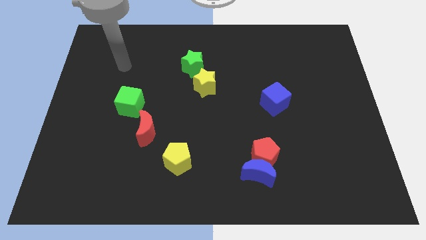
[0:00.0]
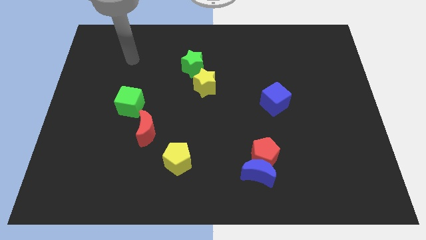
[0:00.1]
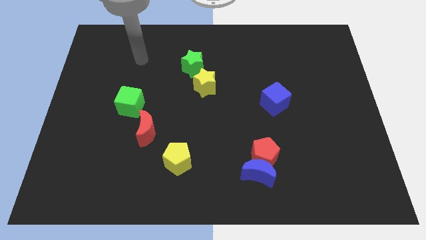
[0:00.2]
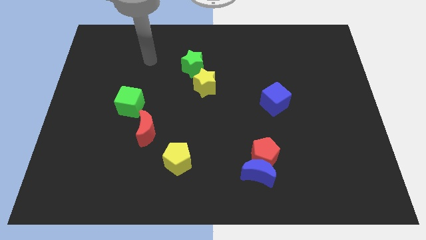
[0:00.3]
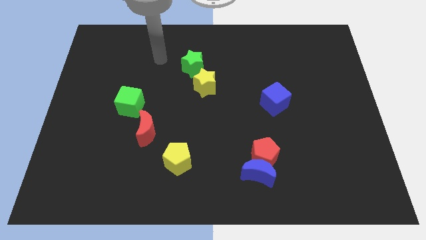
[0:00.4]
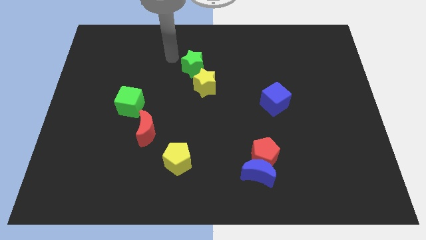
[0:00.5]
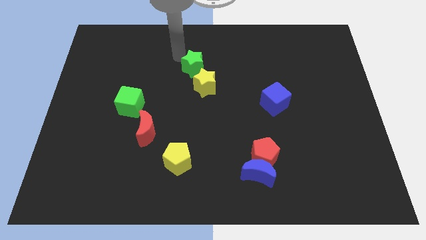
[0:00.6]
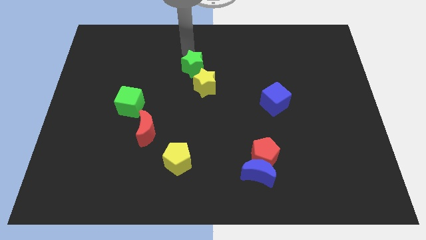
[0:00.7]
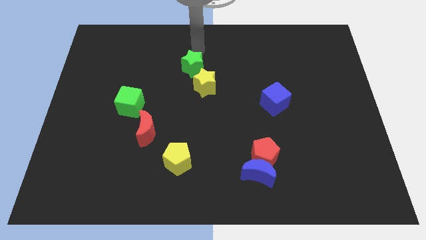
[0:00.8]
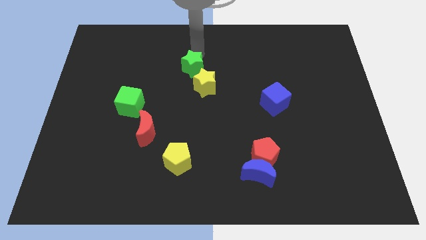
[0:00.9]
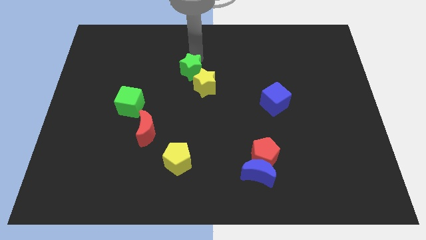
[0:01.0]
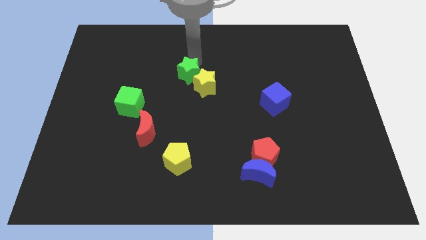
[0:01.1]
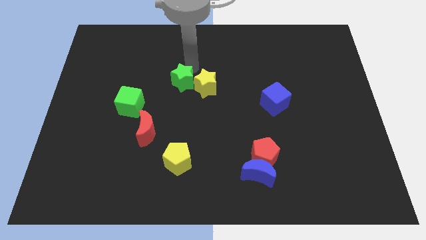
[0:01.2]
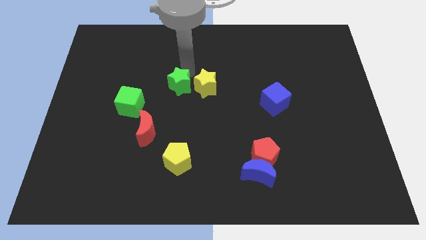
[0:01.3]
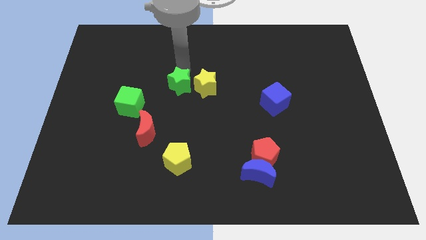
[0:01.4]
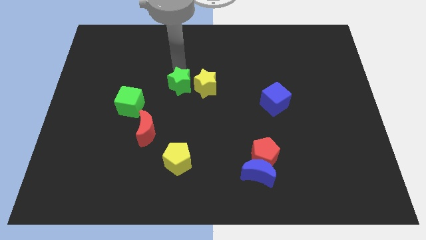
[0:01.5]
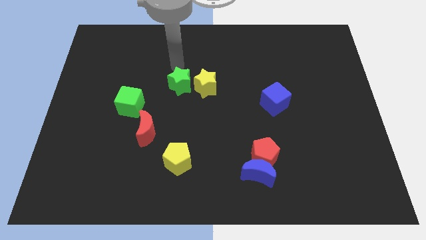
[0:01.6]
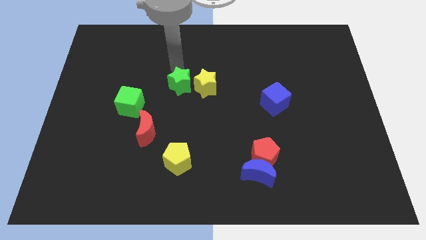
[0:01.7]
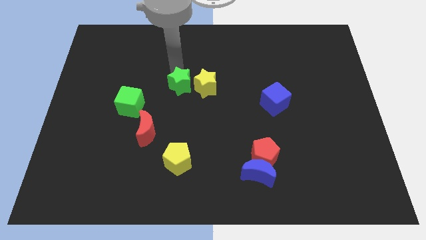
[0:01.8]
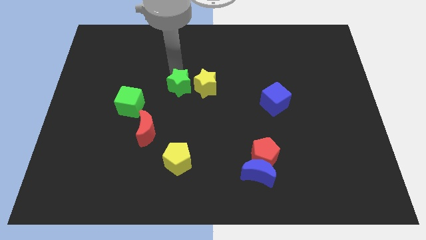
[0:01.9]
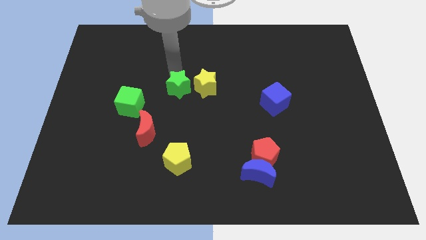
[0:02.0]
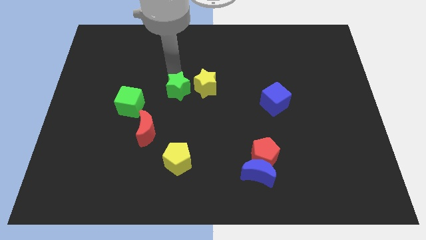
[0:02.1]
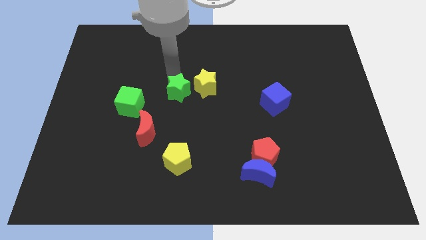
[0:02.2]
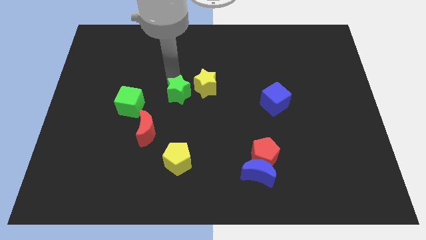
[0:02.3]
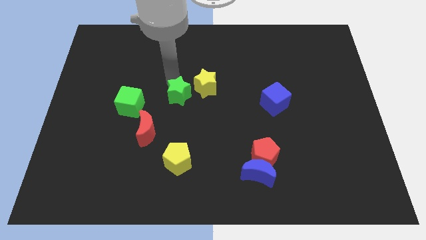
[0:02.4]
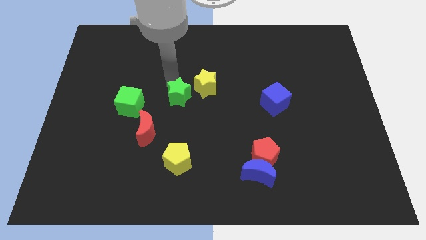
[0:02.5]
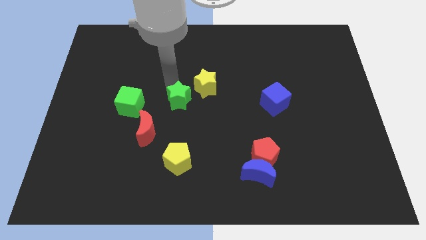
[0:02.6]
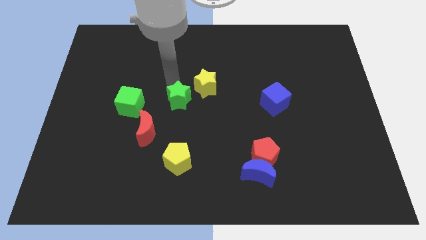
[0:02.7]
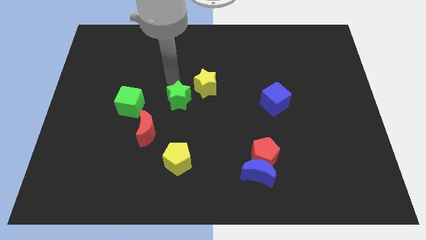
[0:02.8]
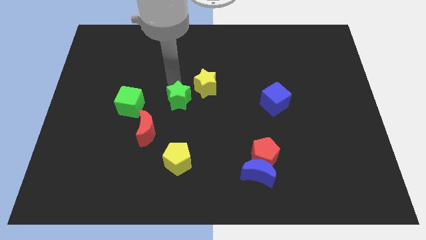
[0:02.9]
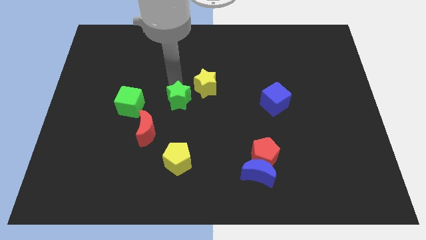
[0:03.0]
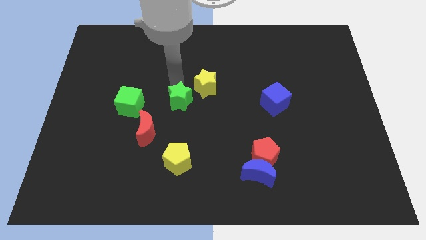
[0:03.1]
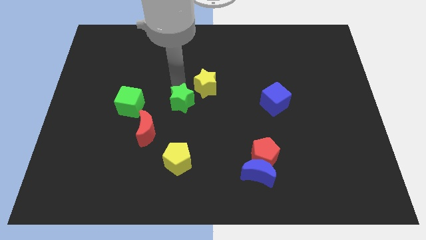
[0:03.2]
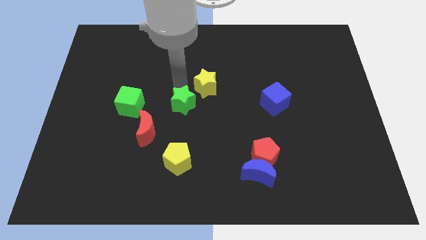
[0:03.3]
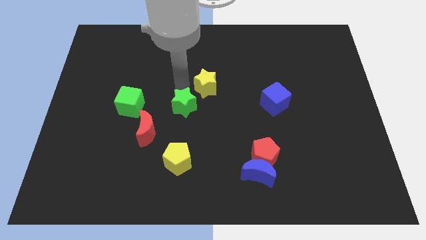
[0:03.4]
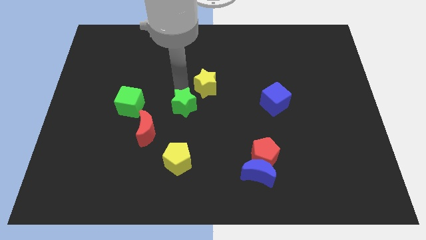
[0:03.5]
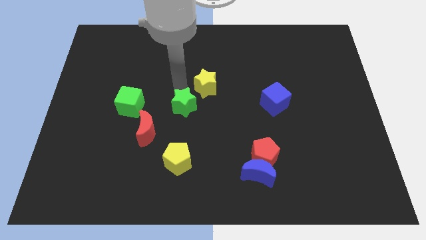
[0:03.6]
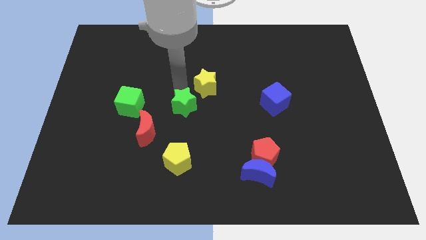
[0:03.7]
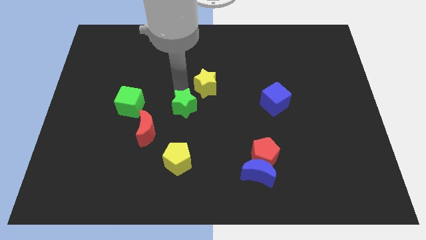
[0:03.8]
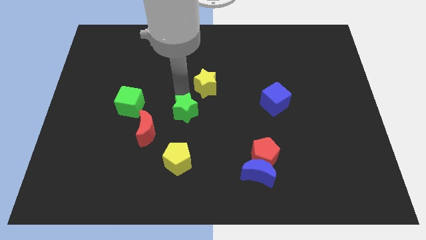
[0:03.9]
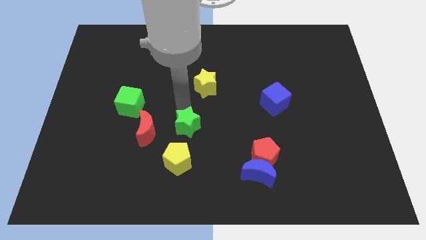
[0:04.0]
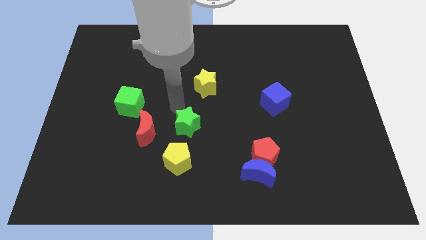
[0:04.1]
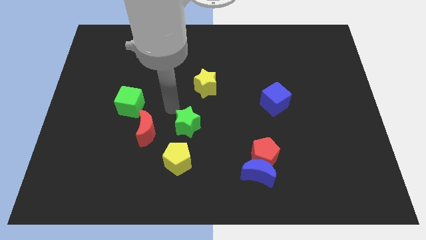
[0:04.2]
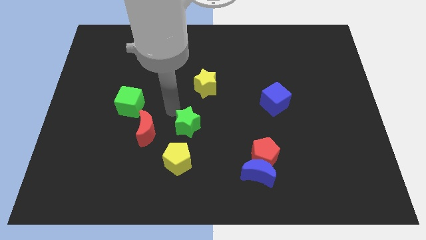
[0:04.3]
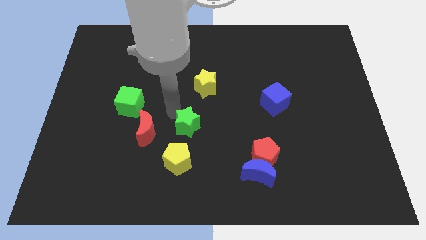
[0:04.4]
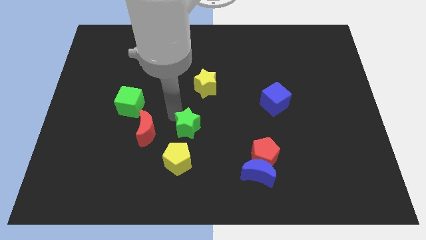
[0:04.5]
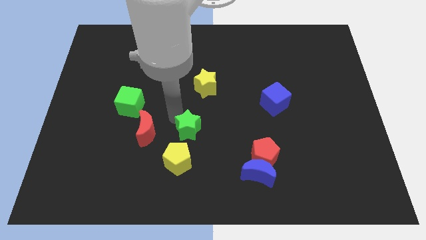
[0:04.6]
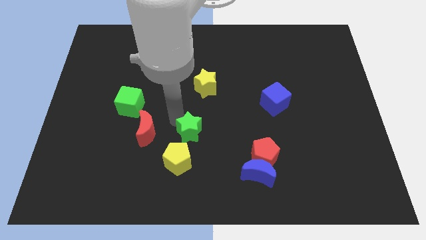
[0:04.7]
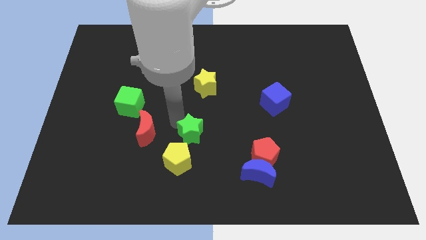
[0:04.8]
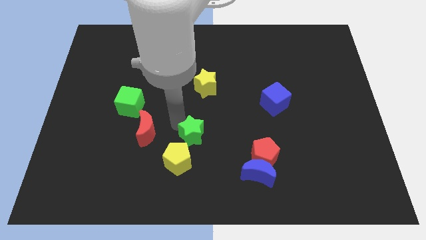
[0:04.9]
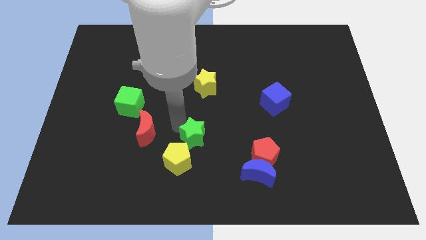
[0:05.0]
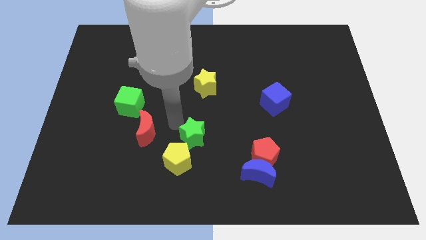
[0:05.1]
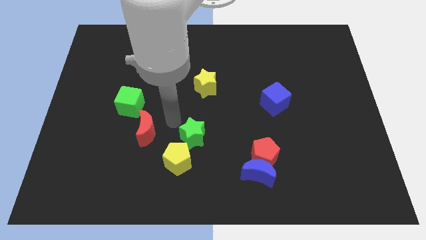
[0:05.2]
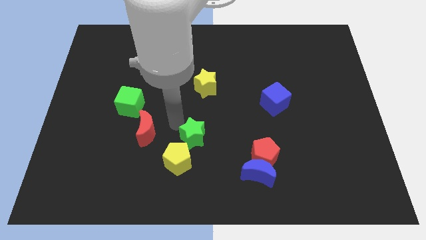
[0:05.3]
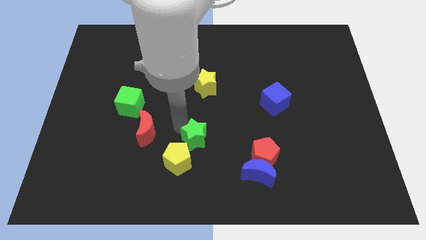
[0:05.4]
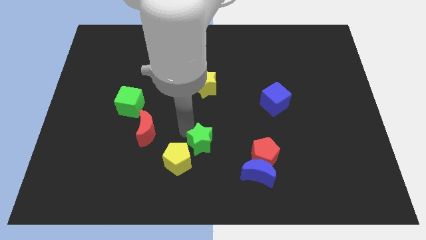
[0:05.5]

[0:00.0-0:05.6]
move the green star to the left of the red pentagon

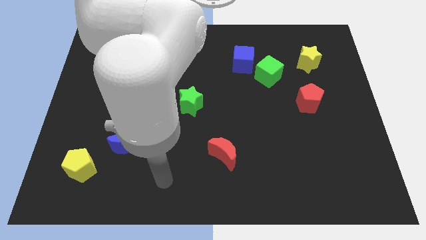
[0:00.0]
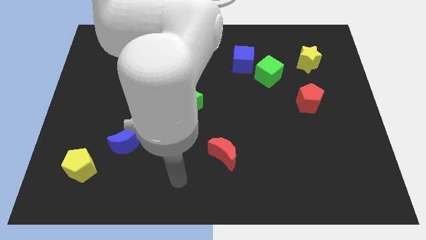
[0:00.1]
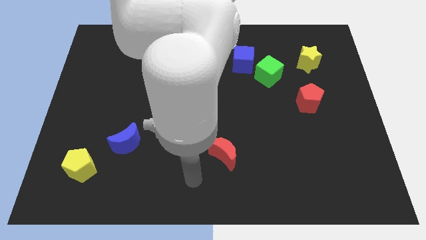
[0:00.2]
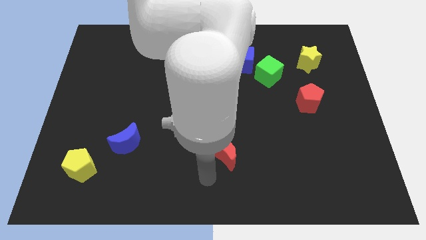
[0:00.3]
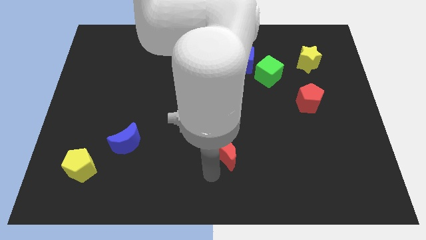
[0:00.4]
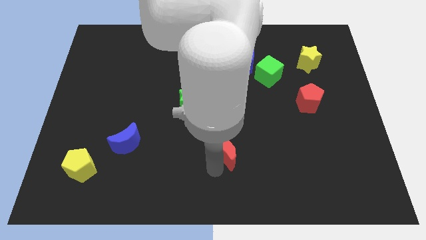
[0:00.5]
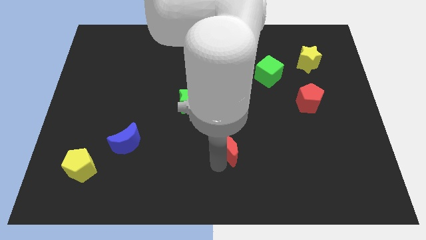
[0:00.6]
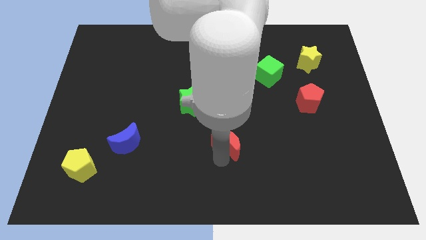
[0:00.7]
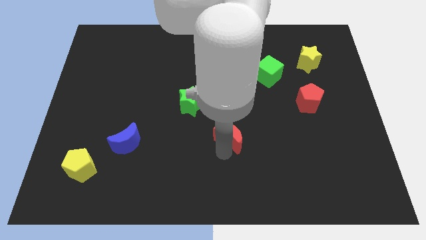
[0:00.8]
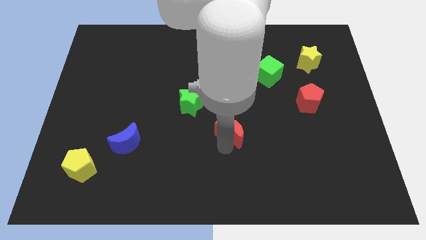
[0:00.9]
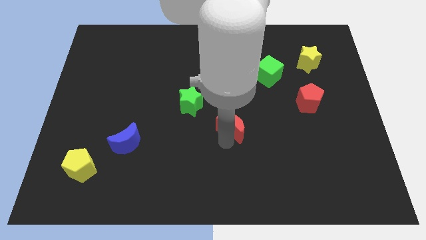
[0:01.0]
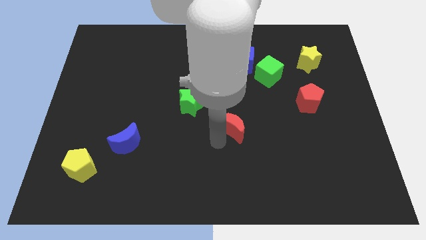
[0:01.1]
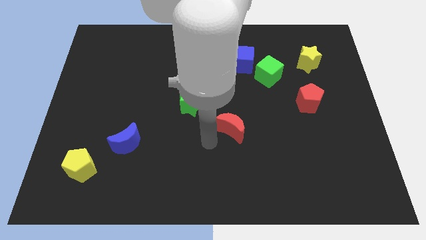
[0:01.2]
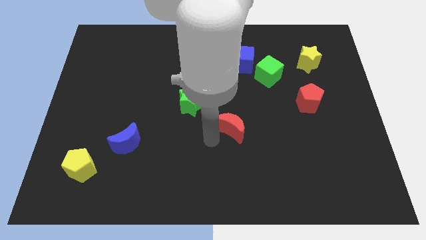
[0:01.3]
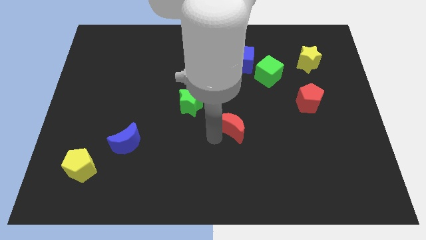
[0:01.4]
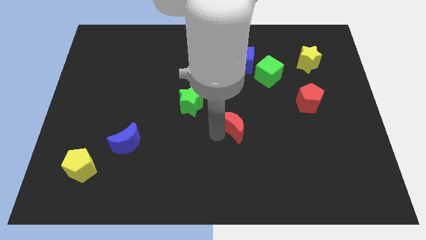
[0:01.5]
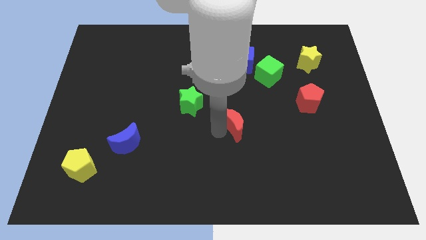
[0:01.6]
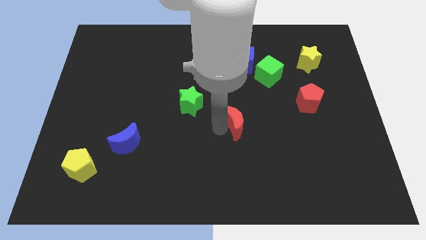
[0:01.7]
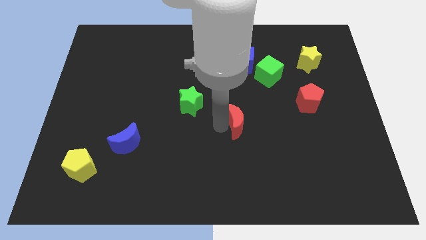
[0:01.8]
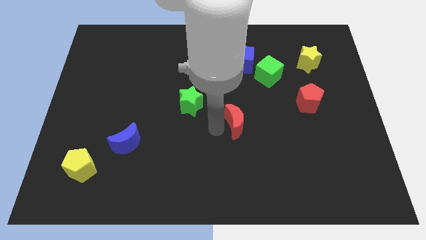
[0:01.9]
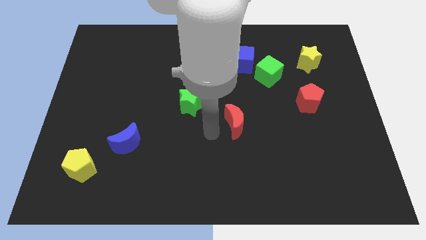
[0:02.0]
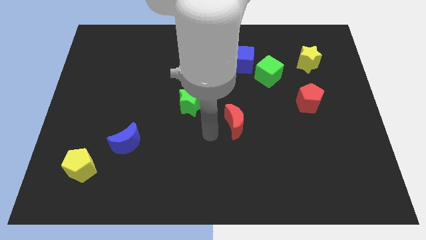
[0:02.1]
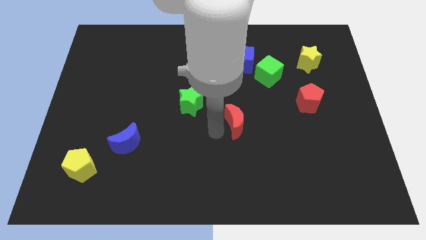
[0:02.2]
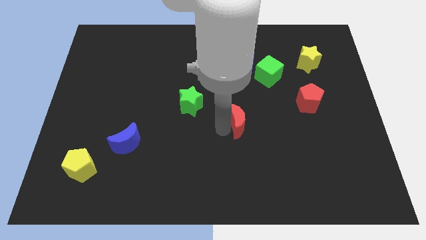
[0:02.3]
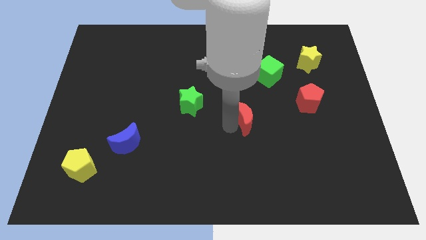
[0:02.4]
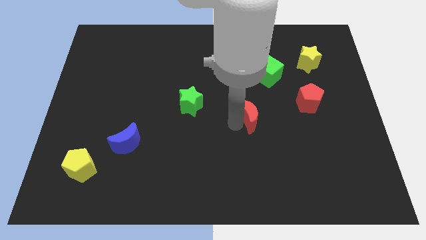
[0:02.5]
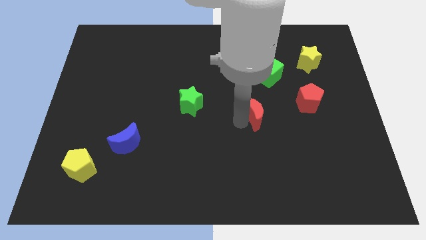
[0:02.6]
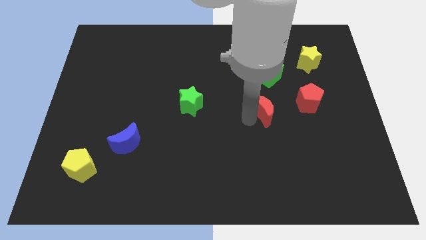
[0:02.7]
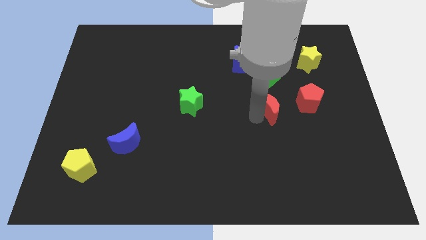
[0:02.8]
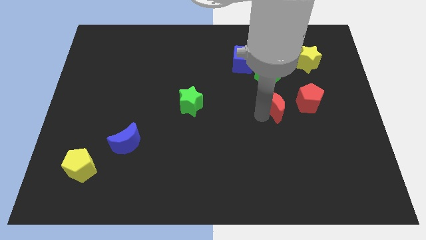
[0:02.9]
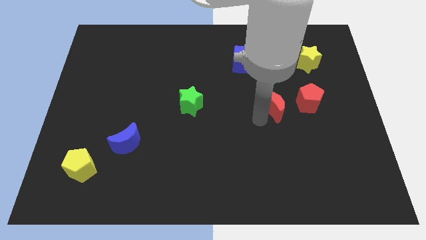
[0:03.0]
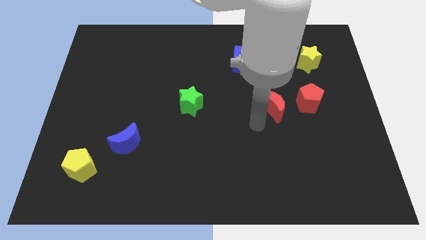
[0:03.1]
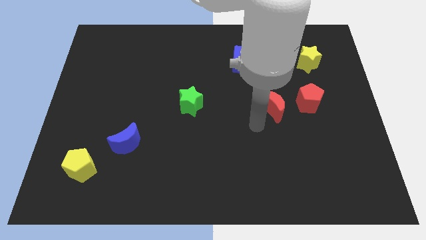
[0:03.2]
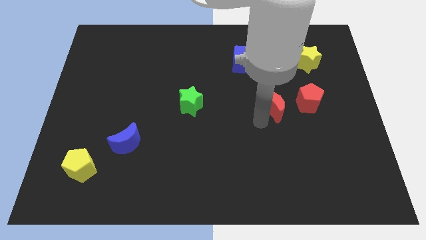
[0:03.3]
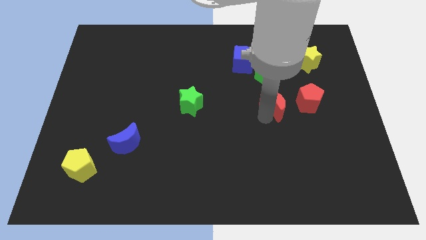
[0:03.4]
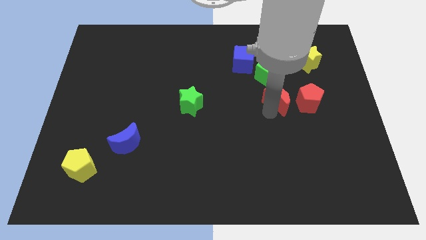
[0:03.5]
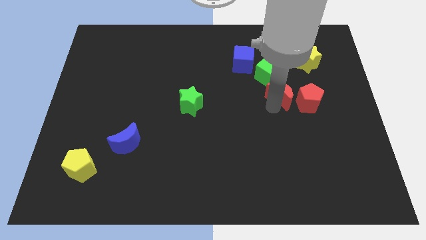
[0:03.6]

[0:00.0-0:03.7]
move the red moon diagonally down and to the right of the green cube
